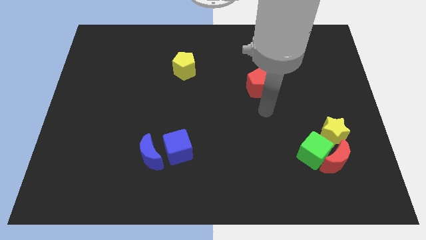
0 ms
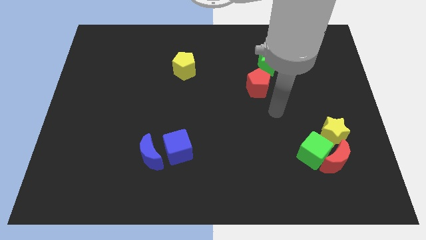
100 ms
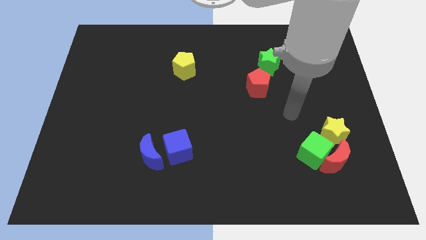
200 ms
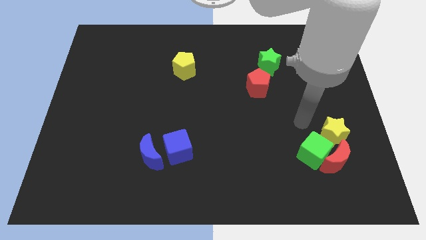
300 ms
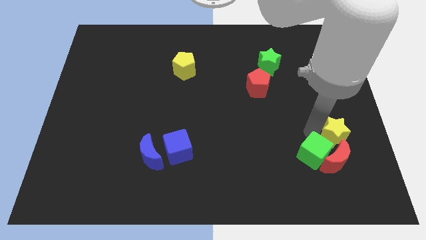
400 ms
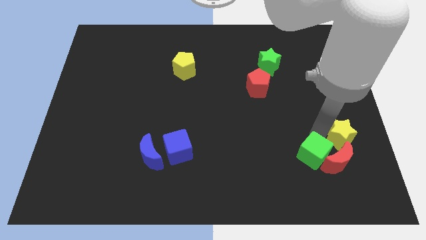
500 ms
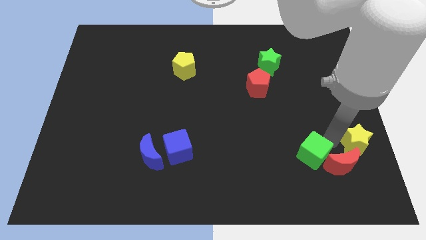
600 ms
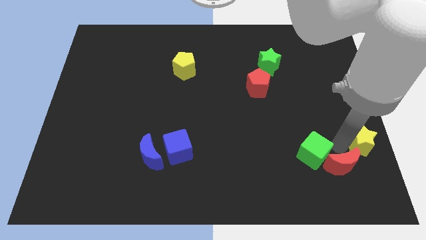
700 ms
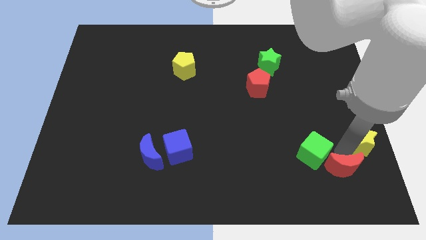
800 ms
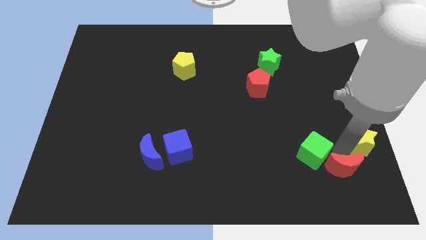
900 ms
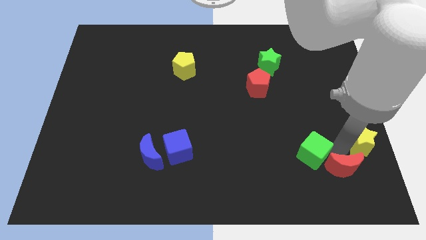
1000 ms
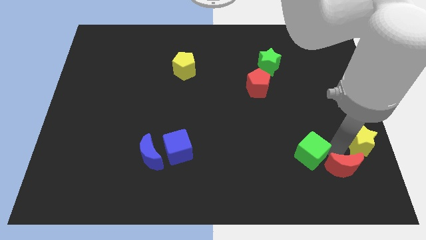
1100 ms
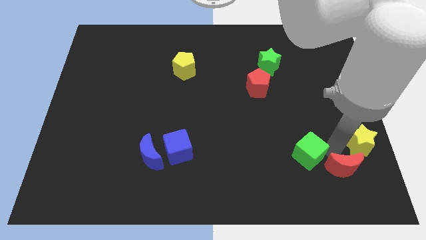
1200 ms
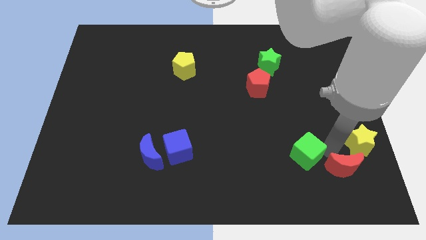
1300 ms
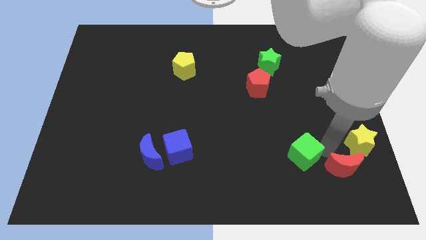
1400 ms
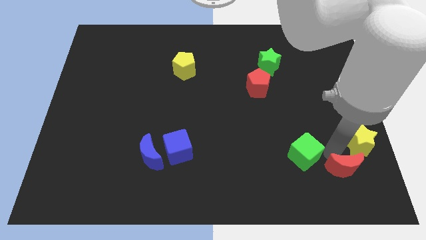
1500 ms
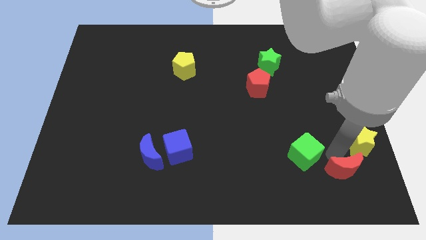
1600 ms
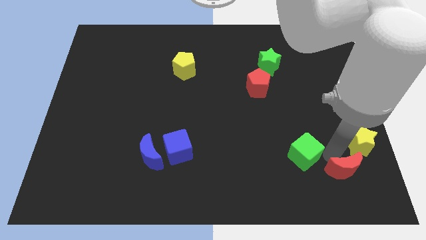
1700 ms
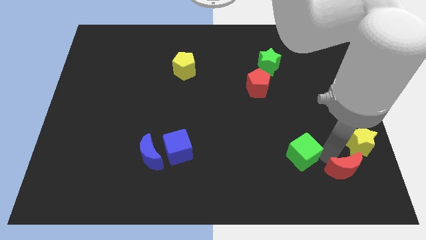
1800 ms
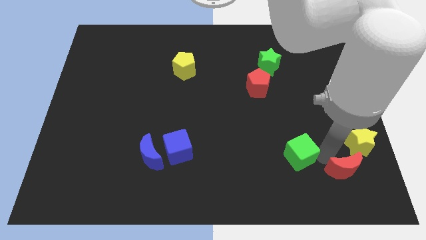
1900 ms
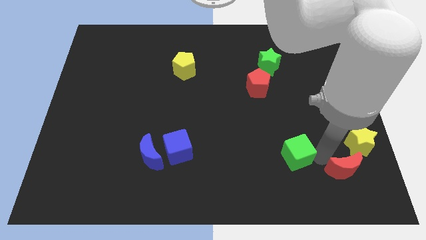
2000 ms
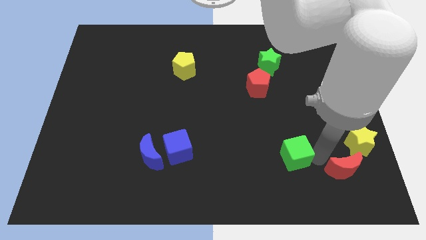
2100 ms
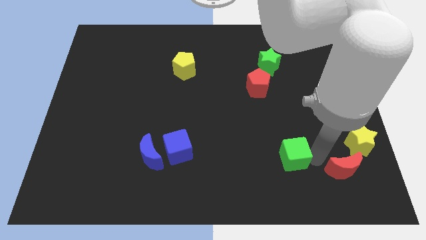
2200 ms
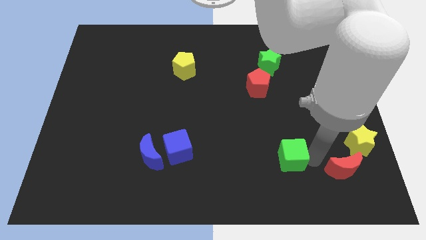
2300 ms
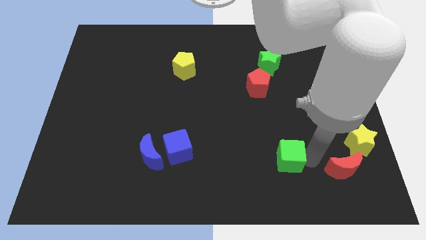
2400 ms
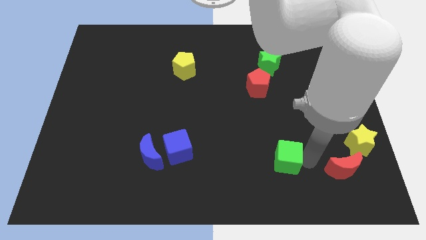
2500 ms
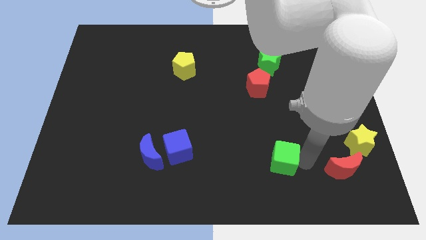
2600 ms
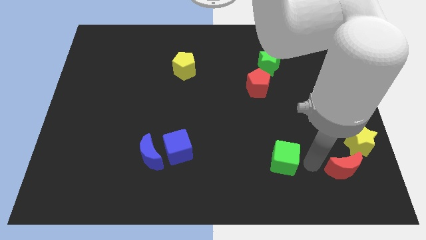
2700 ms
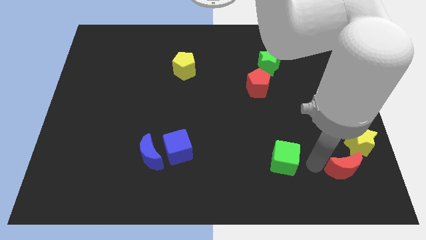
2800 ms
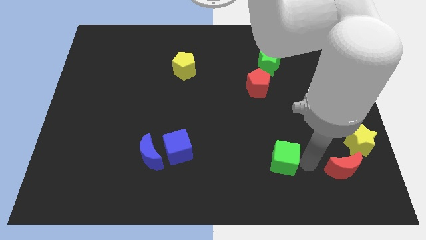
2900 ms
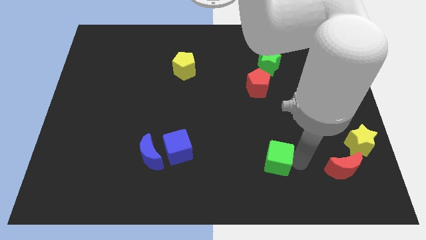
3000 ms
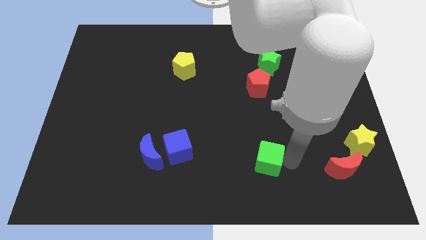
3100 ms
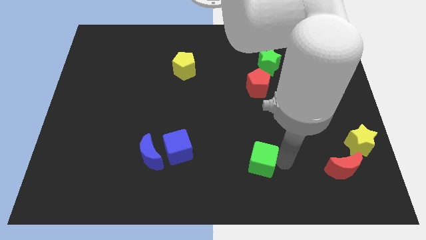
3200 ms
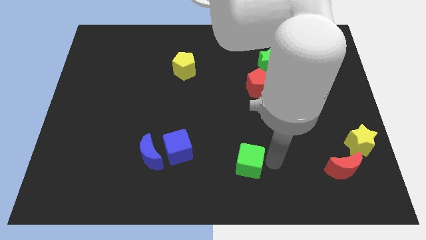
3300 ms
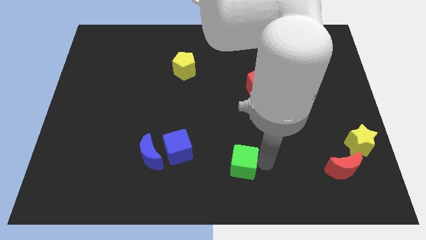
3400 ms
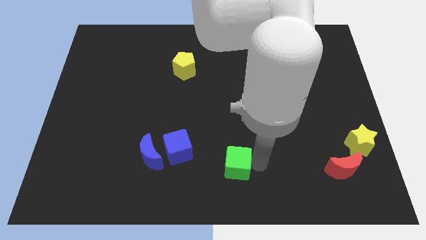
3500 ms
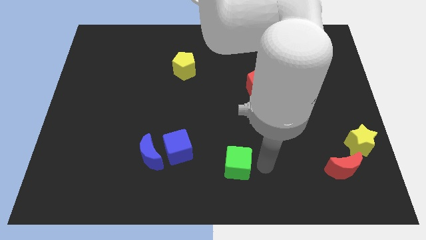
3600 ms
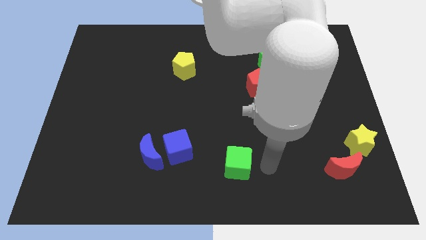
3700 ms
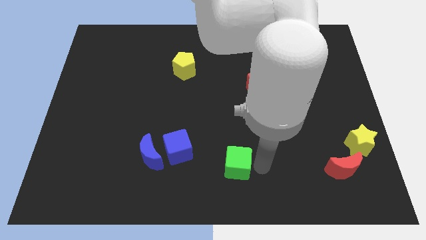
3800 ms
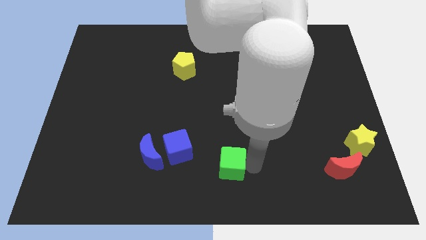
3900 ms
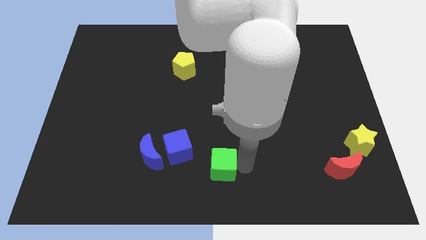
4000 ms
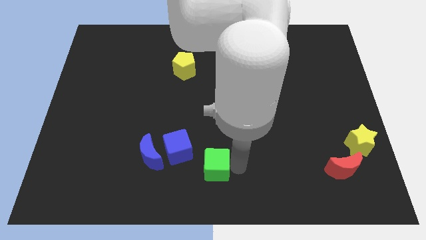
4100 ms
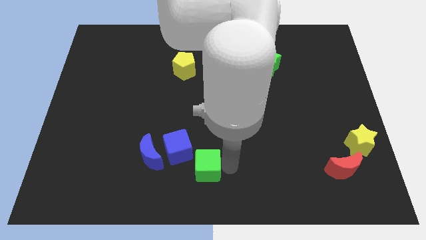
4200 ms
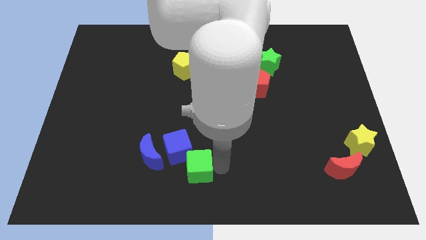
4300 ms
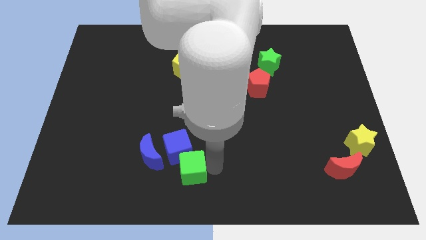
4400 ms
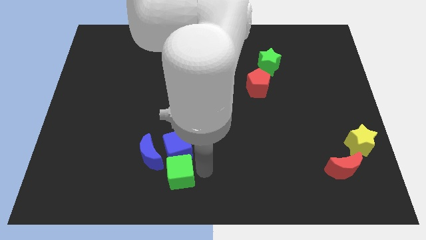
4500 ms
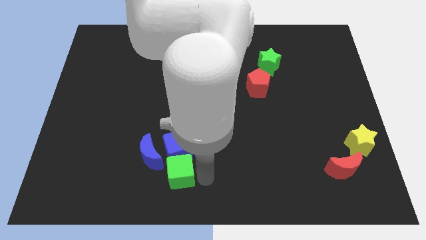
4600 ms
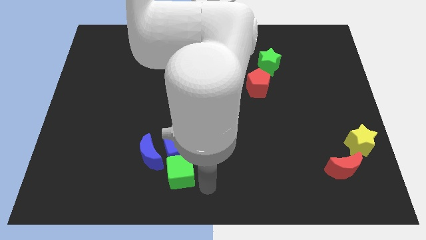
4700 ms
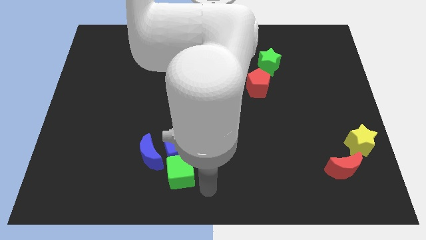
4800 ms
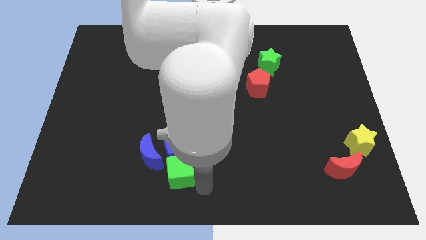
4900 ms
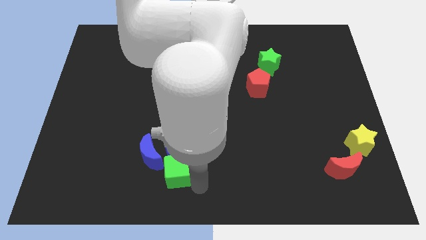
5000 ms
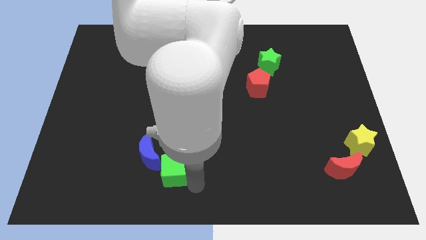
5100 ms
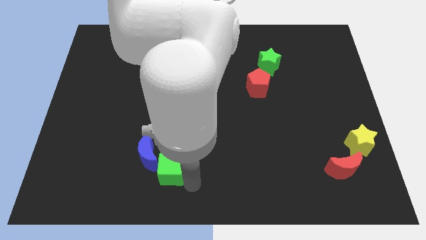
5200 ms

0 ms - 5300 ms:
push the green cube to the blue moon

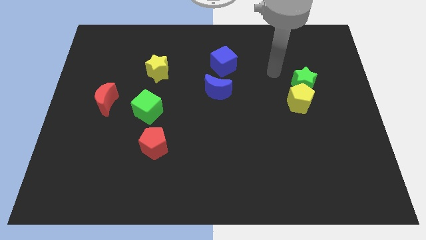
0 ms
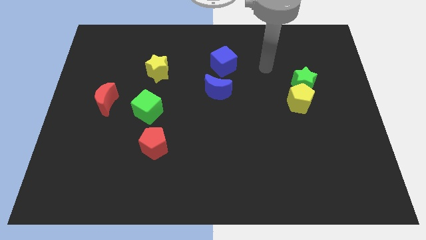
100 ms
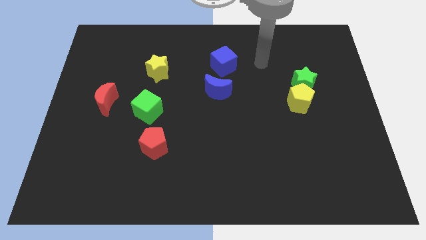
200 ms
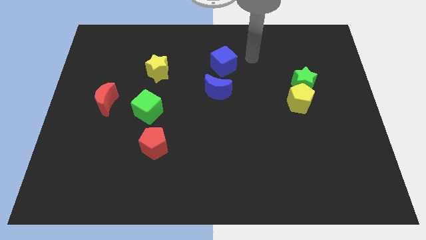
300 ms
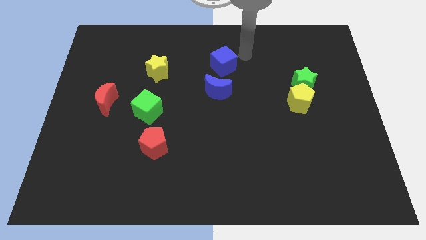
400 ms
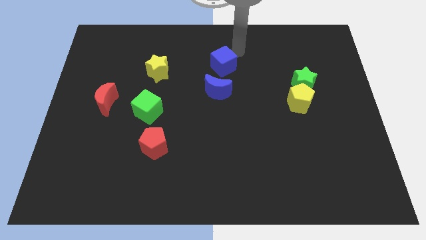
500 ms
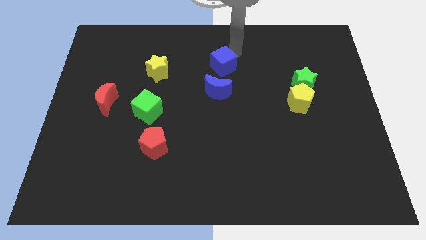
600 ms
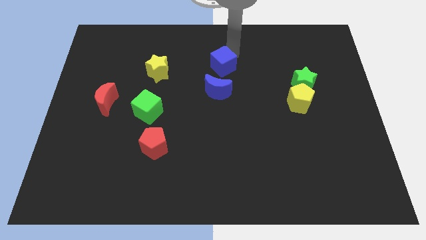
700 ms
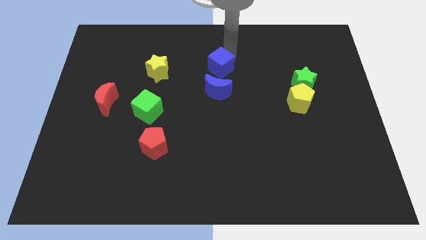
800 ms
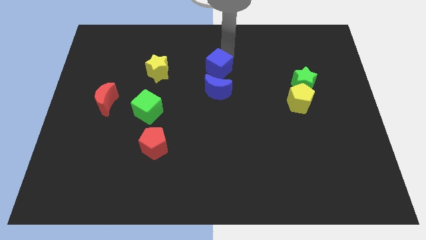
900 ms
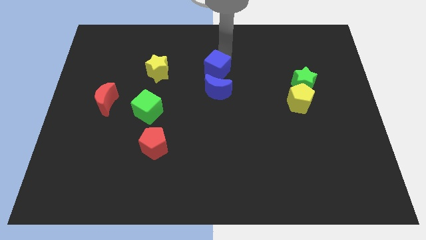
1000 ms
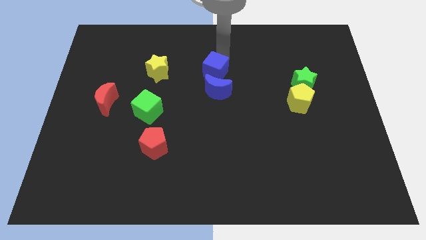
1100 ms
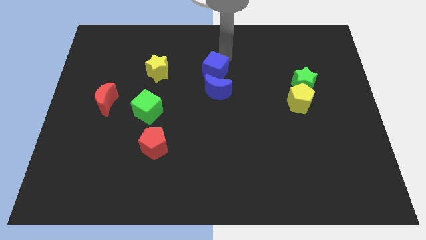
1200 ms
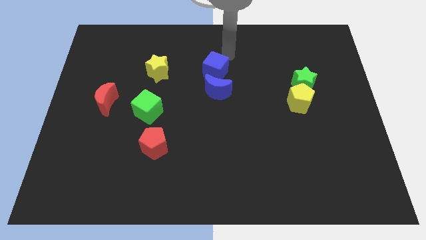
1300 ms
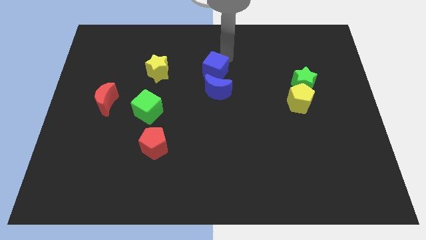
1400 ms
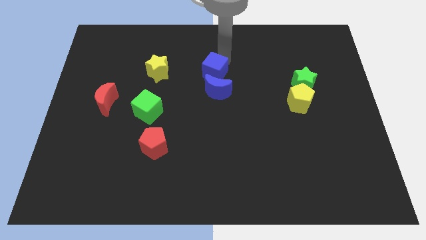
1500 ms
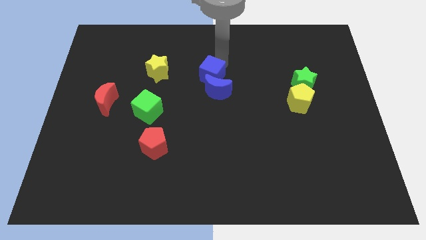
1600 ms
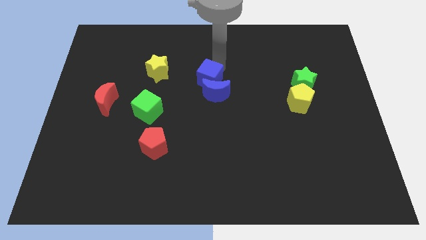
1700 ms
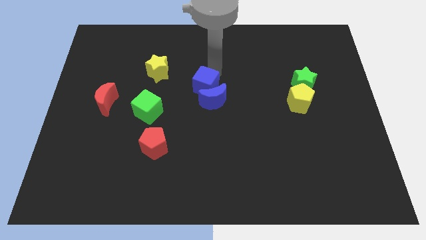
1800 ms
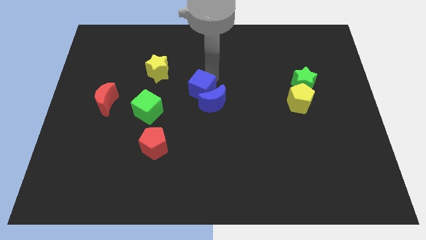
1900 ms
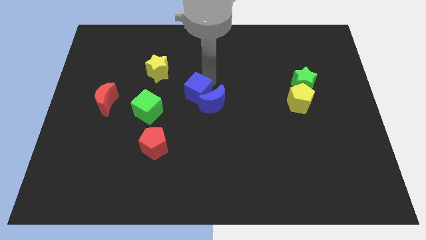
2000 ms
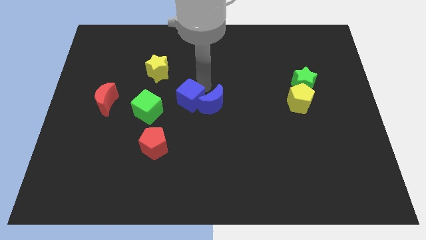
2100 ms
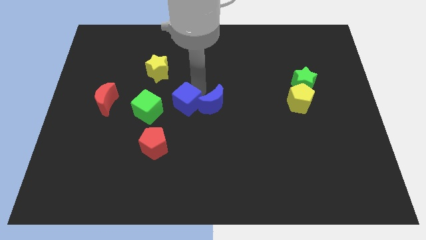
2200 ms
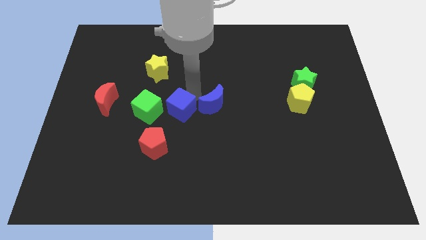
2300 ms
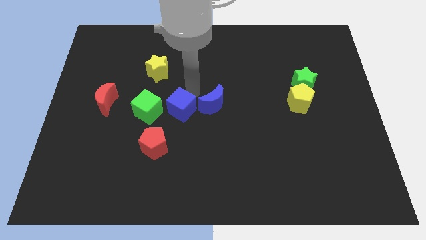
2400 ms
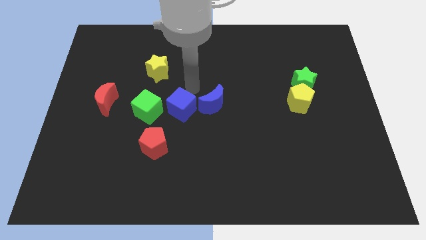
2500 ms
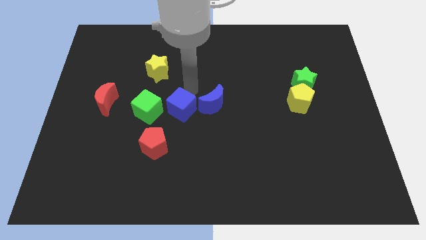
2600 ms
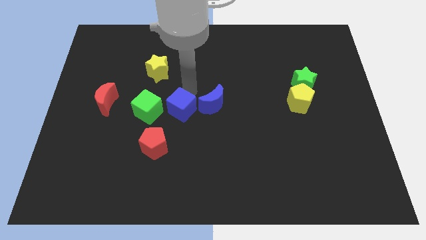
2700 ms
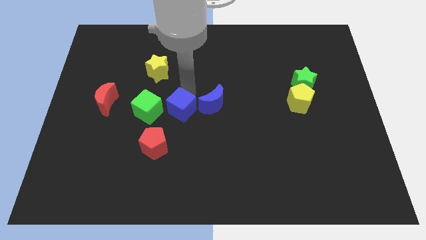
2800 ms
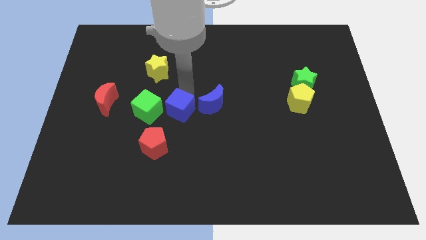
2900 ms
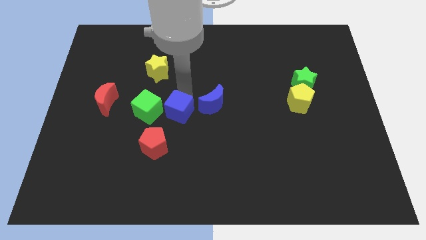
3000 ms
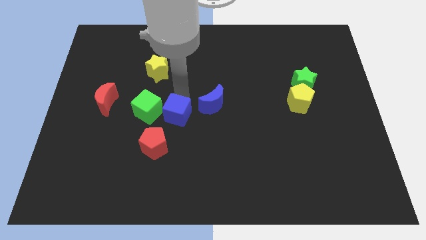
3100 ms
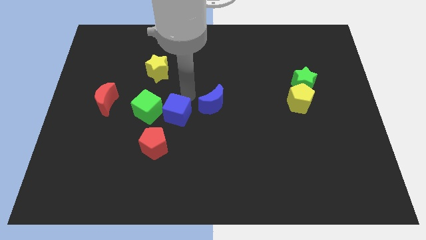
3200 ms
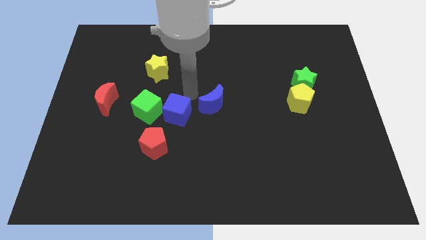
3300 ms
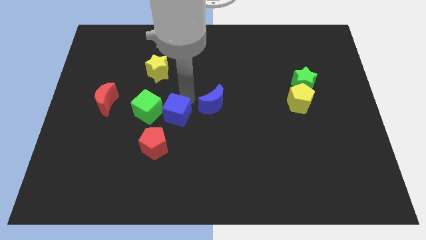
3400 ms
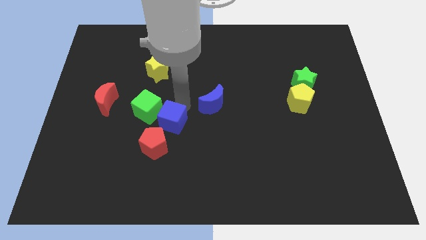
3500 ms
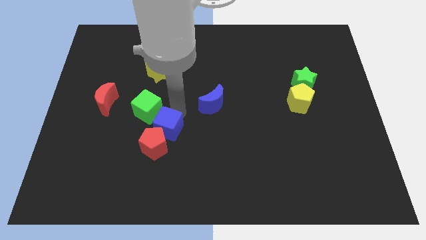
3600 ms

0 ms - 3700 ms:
put the blue cube next to the red pentagon
